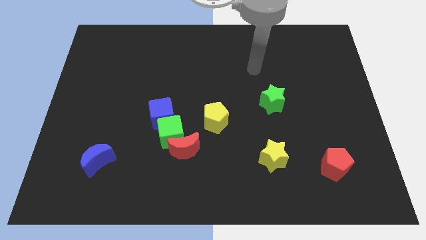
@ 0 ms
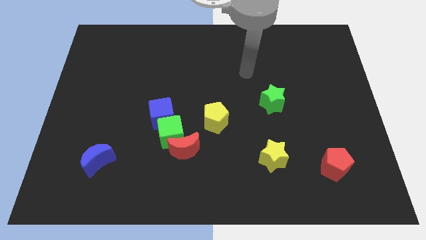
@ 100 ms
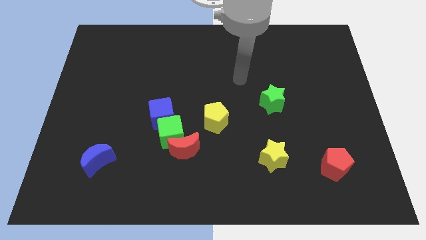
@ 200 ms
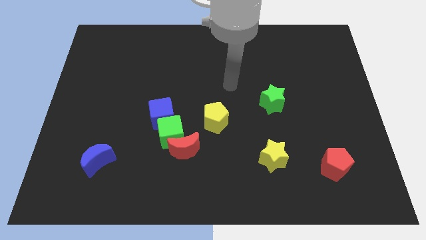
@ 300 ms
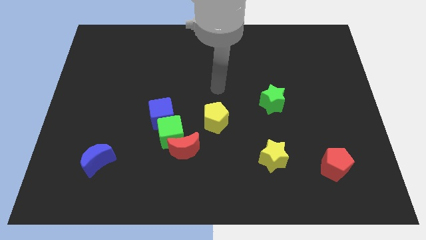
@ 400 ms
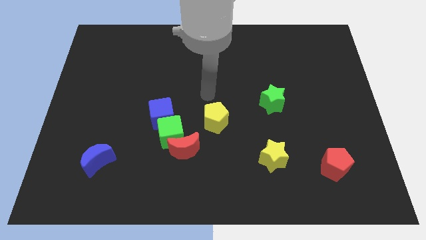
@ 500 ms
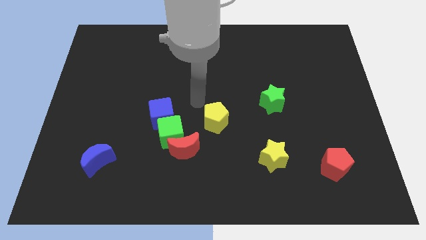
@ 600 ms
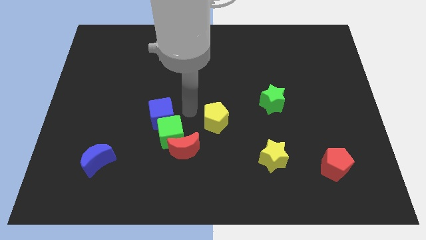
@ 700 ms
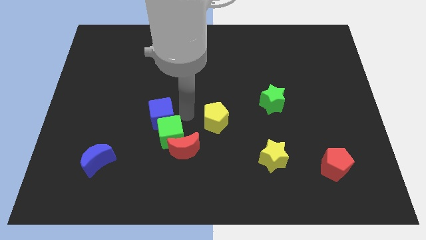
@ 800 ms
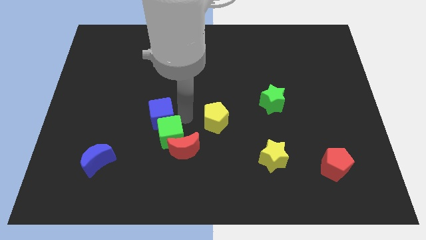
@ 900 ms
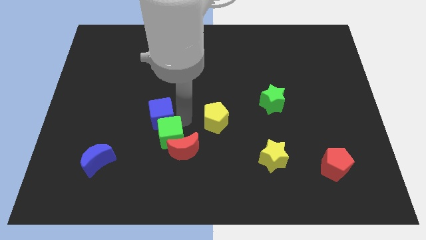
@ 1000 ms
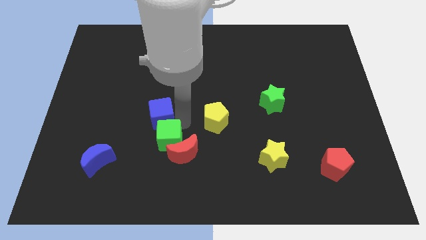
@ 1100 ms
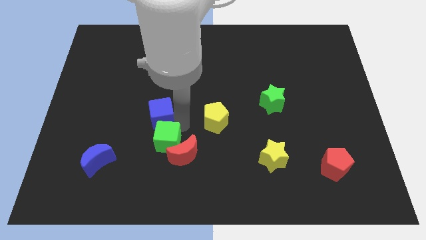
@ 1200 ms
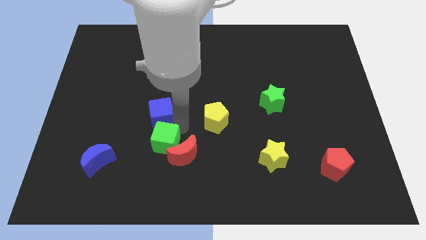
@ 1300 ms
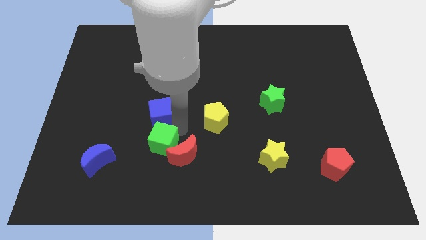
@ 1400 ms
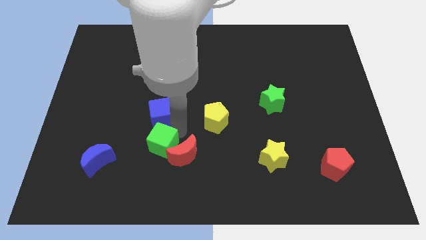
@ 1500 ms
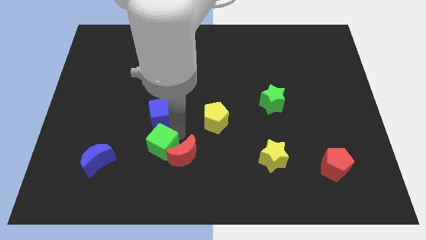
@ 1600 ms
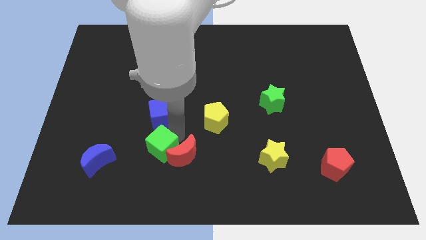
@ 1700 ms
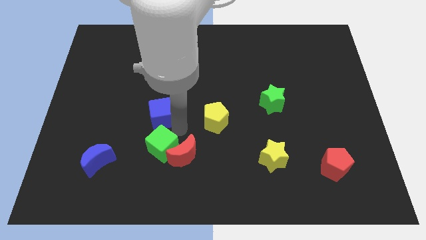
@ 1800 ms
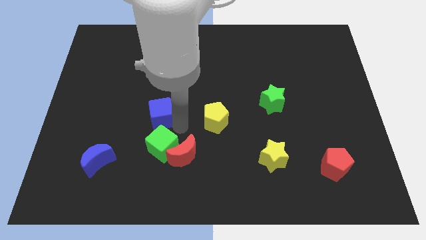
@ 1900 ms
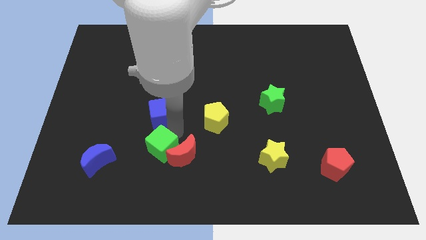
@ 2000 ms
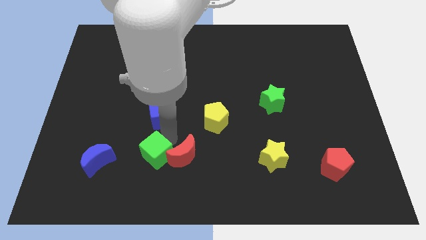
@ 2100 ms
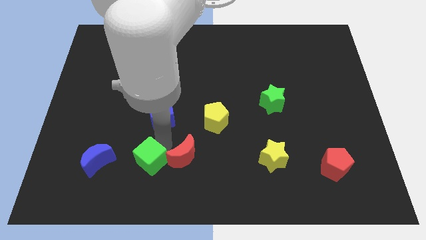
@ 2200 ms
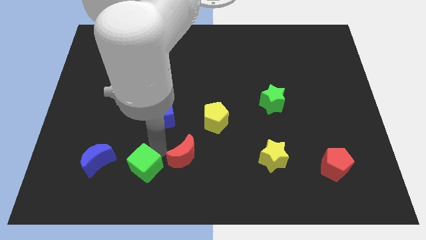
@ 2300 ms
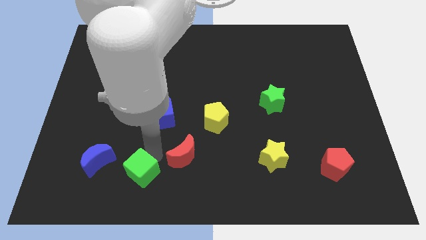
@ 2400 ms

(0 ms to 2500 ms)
separate the green cube from the red moon and blue cube

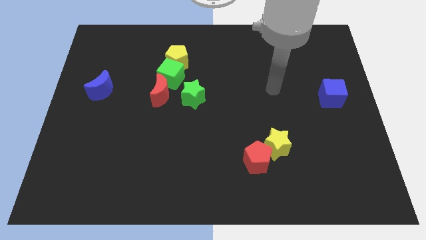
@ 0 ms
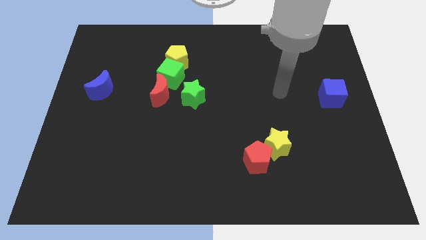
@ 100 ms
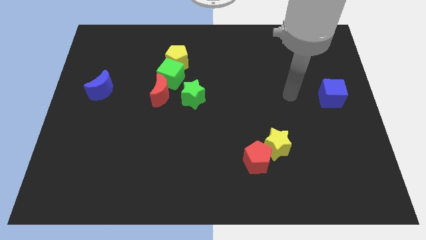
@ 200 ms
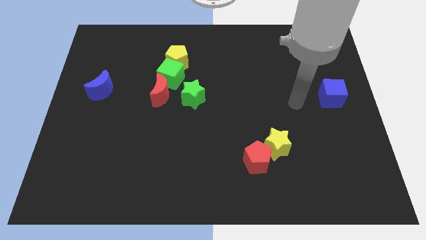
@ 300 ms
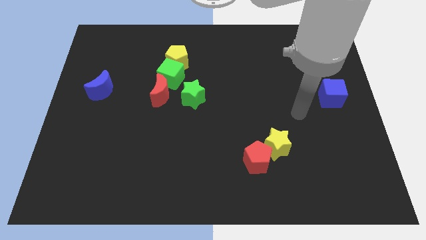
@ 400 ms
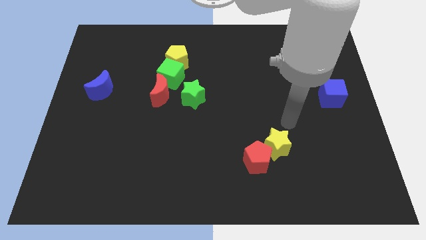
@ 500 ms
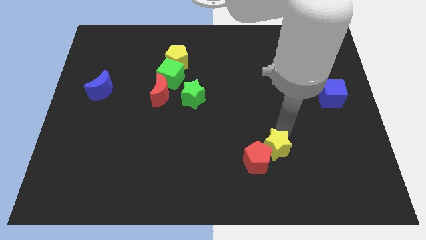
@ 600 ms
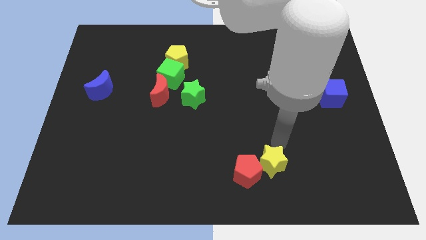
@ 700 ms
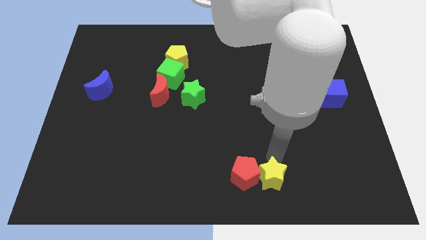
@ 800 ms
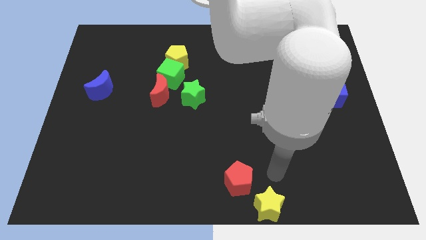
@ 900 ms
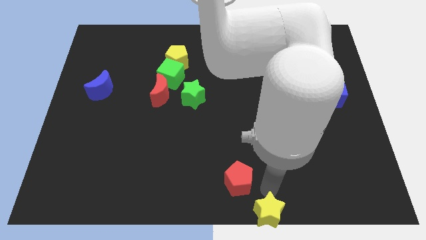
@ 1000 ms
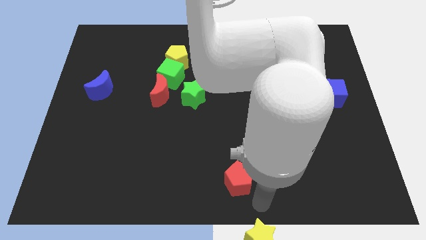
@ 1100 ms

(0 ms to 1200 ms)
separate the red pentagon from the yellow star

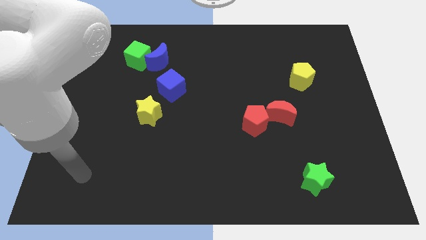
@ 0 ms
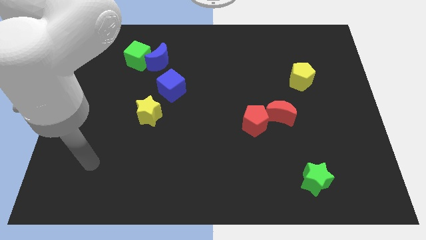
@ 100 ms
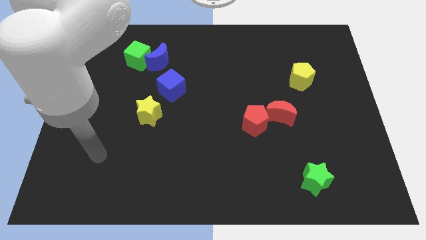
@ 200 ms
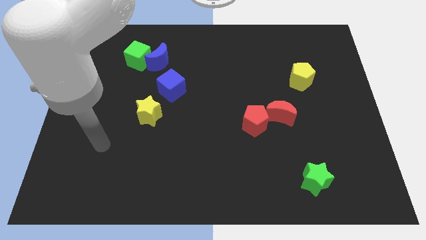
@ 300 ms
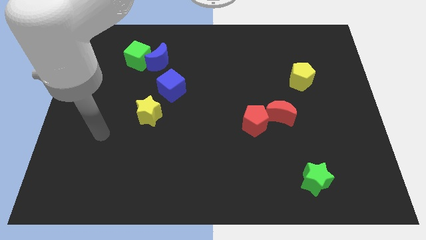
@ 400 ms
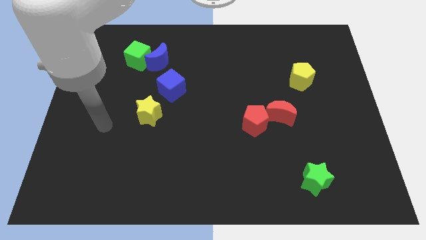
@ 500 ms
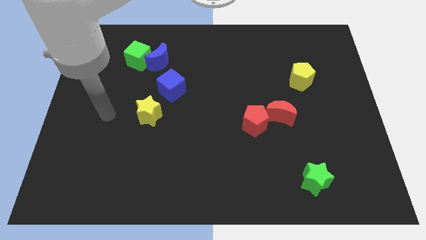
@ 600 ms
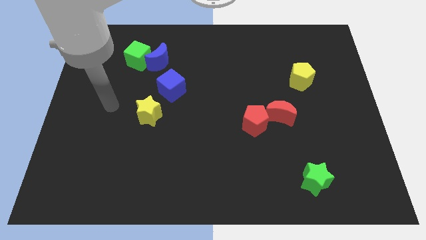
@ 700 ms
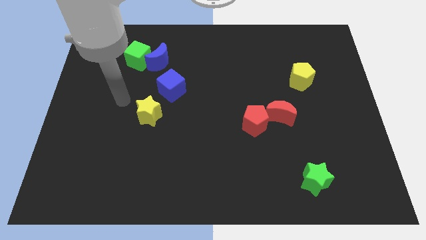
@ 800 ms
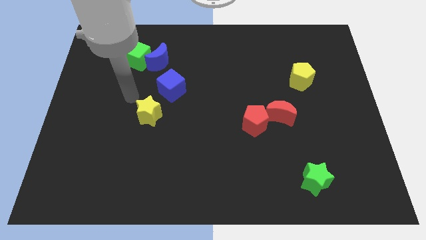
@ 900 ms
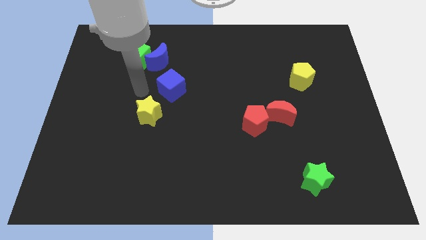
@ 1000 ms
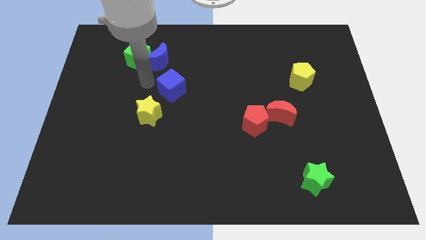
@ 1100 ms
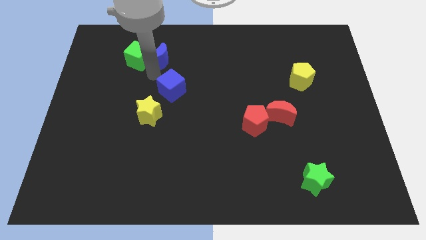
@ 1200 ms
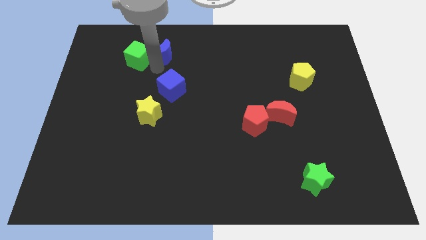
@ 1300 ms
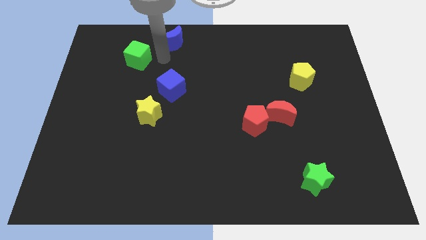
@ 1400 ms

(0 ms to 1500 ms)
separate the green cube from the blue moon

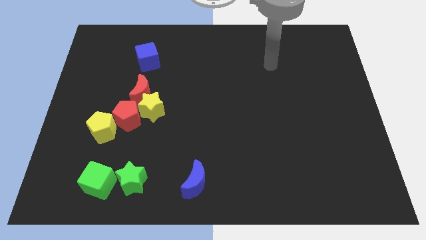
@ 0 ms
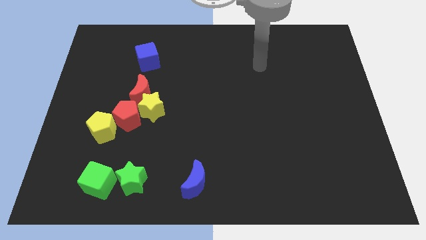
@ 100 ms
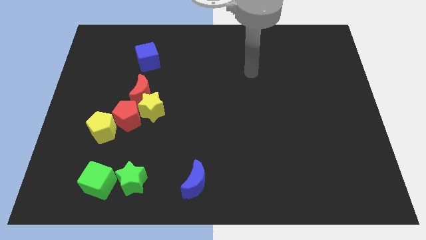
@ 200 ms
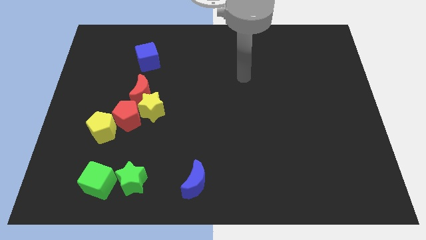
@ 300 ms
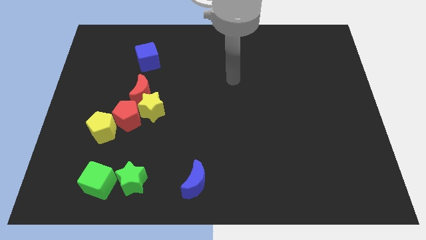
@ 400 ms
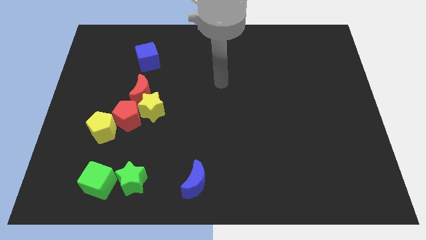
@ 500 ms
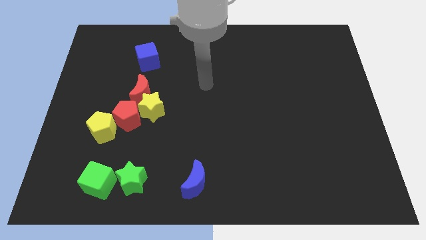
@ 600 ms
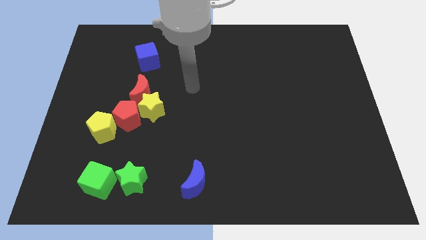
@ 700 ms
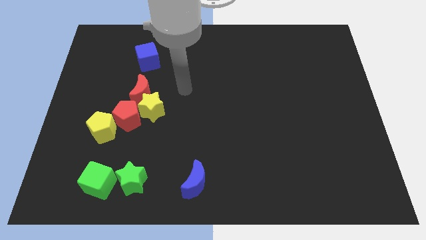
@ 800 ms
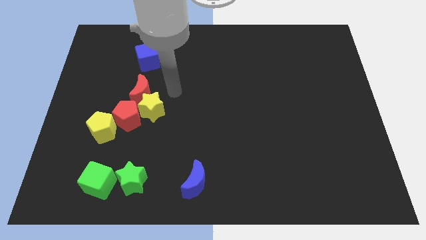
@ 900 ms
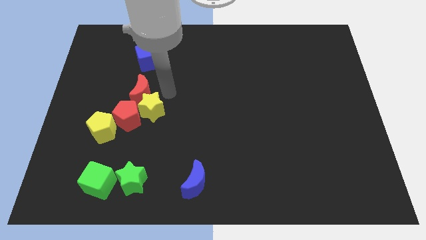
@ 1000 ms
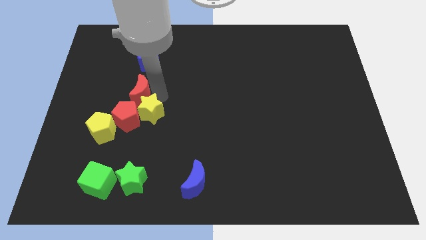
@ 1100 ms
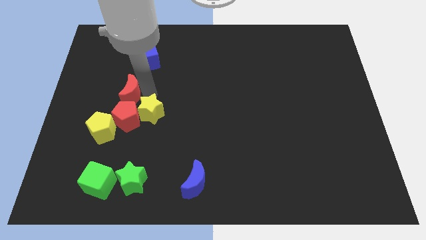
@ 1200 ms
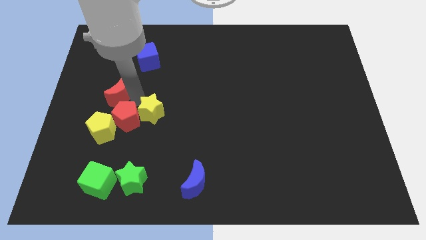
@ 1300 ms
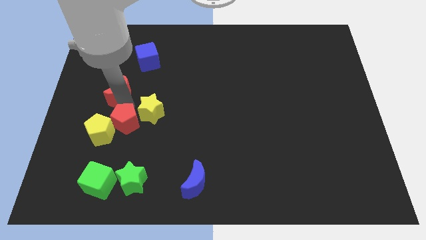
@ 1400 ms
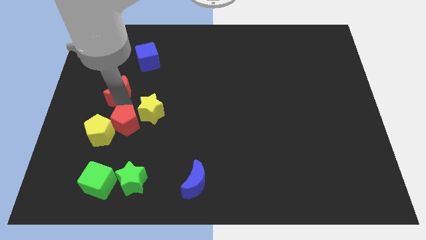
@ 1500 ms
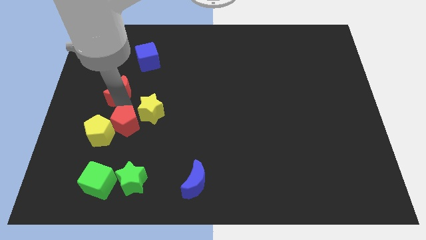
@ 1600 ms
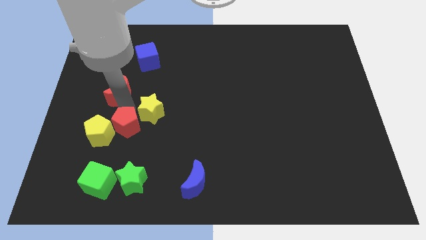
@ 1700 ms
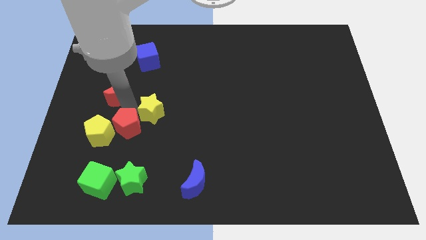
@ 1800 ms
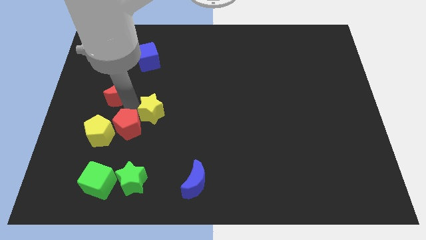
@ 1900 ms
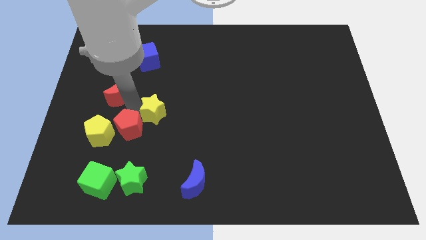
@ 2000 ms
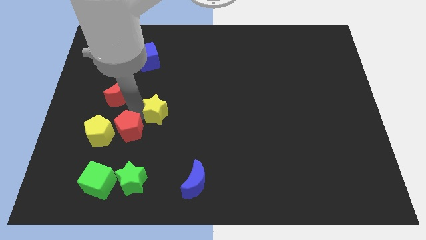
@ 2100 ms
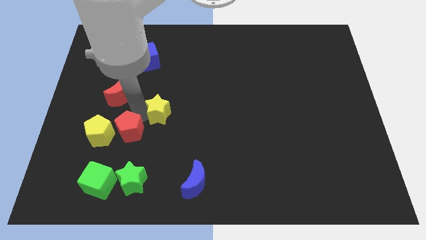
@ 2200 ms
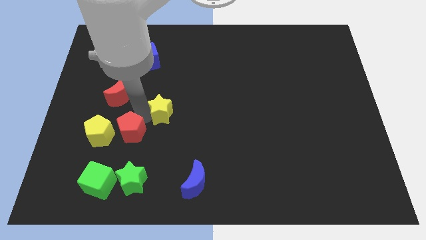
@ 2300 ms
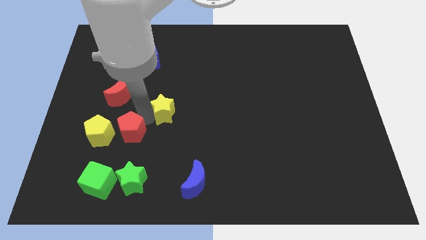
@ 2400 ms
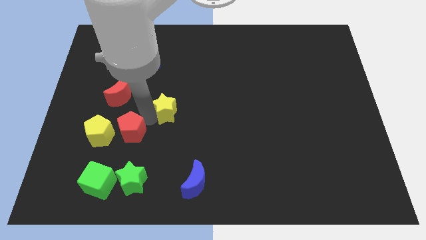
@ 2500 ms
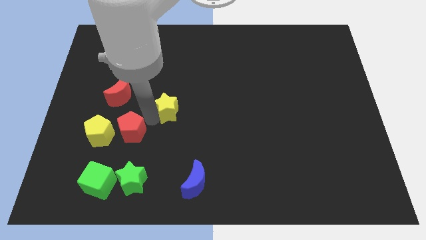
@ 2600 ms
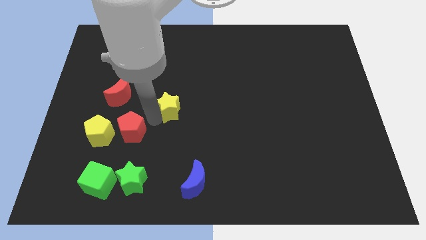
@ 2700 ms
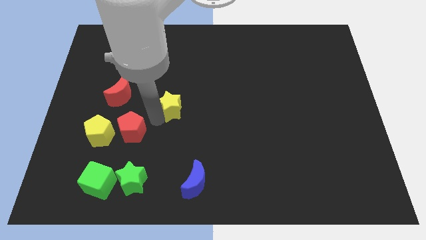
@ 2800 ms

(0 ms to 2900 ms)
separate the yellow star from the red moon and red pentagon

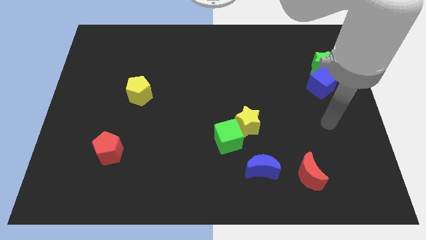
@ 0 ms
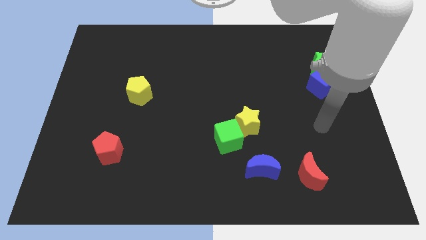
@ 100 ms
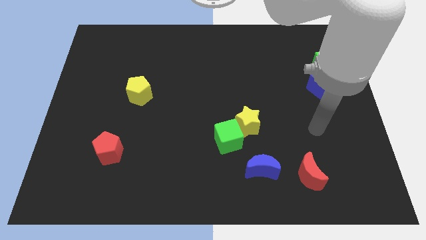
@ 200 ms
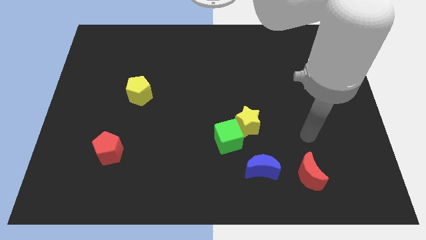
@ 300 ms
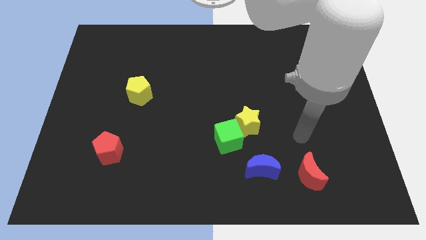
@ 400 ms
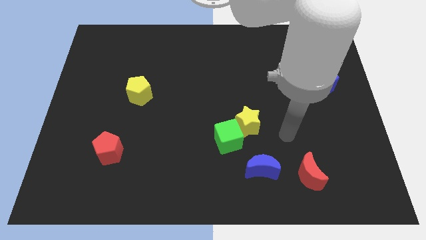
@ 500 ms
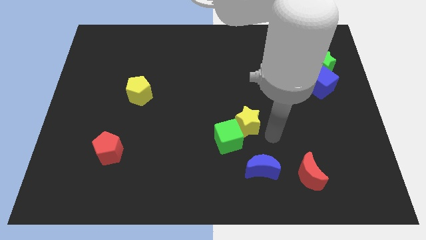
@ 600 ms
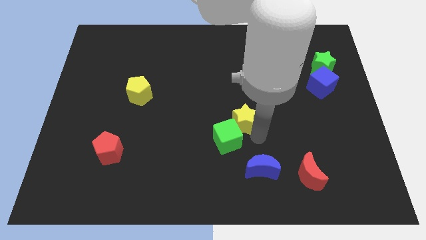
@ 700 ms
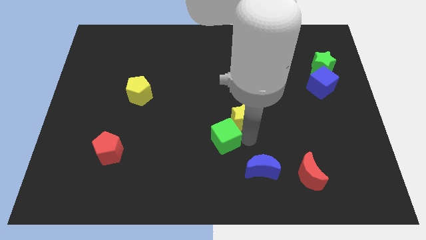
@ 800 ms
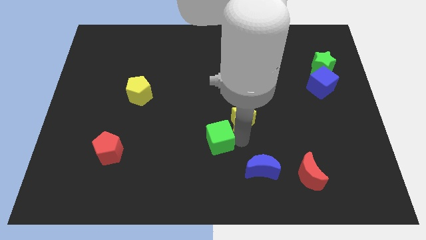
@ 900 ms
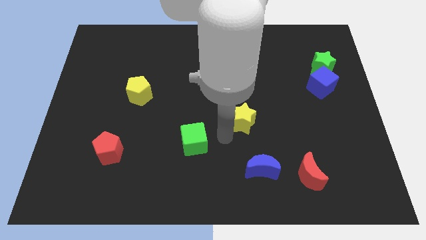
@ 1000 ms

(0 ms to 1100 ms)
move the yellow star away from the green cube

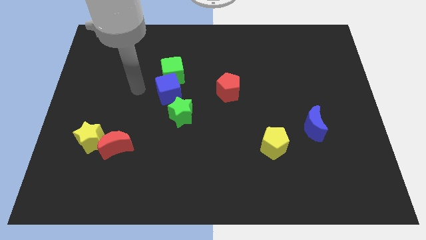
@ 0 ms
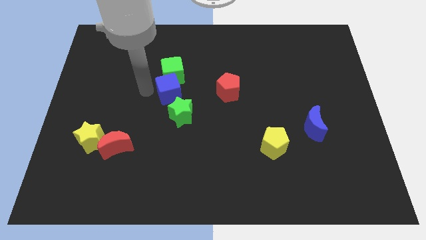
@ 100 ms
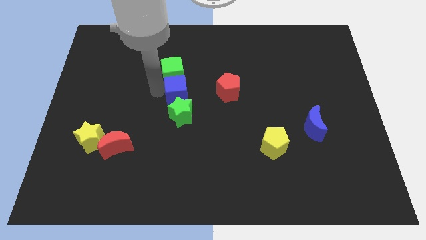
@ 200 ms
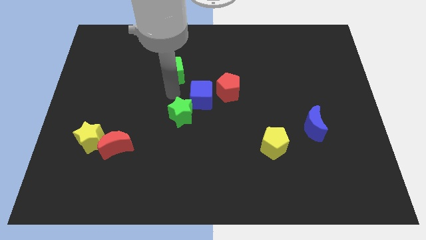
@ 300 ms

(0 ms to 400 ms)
move the green cube away from the blue cube
